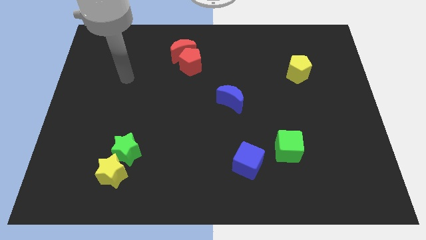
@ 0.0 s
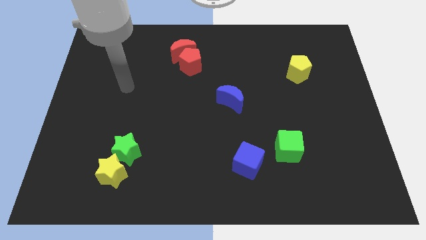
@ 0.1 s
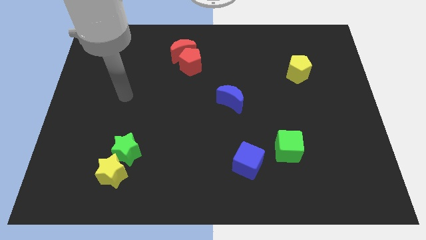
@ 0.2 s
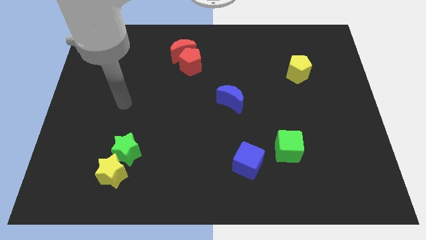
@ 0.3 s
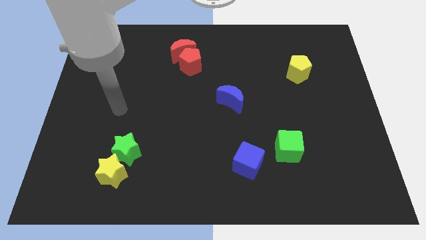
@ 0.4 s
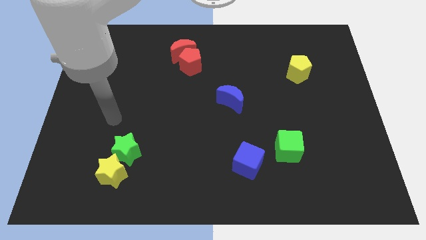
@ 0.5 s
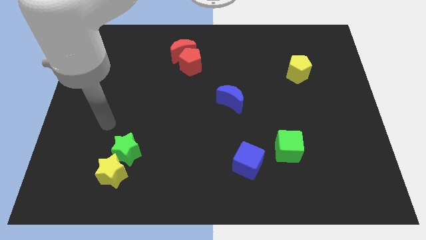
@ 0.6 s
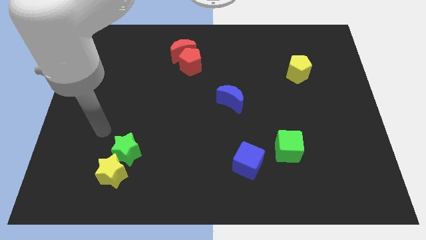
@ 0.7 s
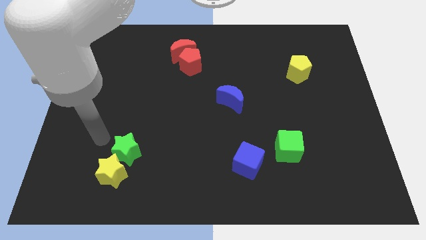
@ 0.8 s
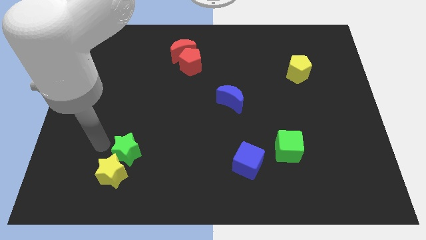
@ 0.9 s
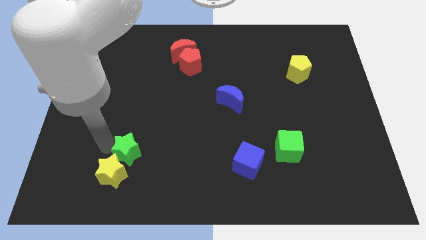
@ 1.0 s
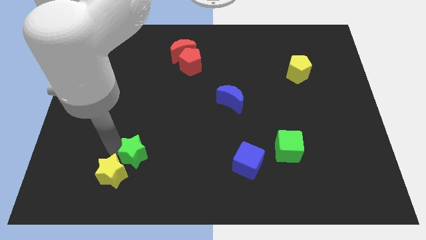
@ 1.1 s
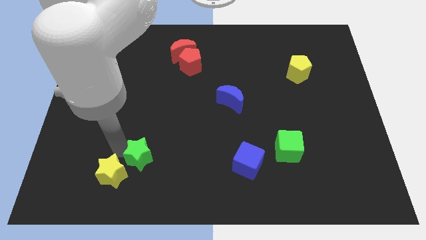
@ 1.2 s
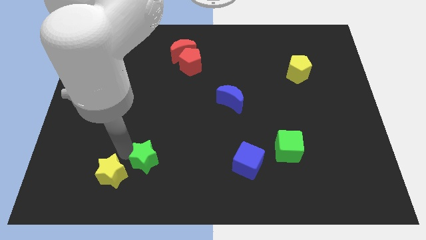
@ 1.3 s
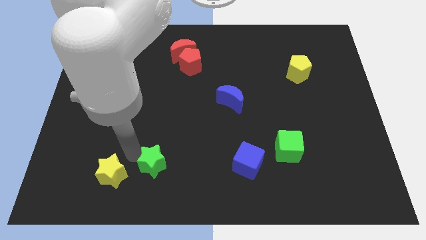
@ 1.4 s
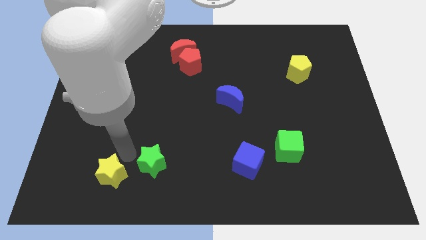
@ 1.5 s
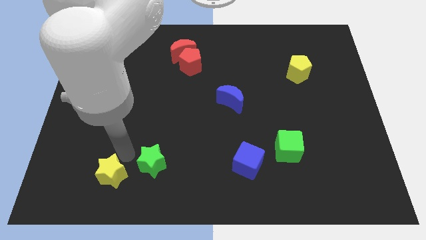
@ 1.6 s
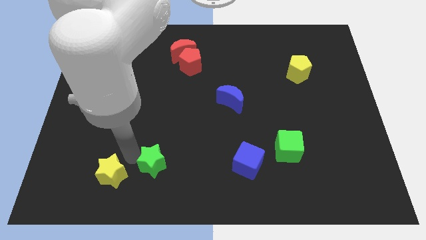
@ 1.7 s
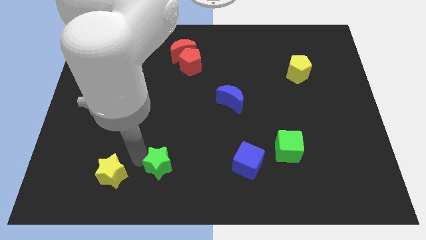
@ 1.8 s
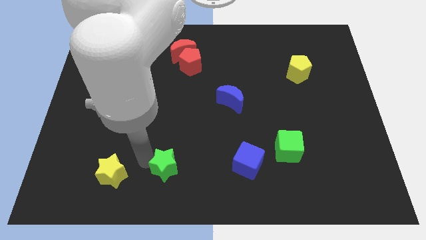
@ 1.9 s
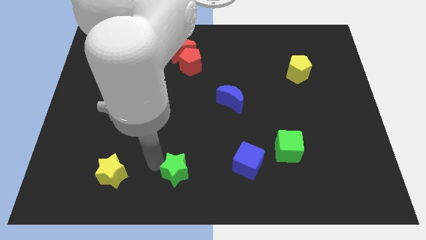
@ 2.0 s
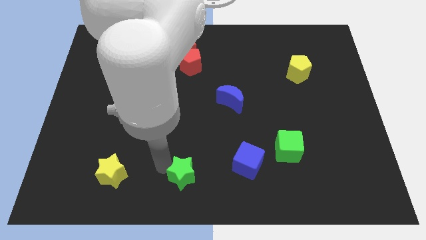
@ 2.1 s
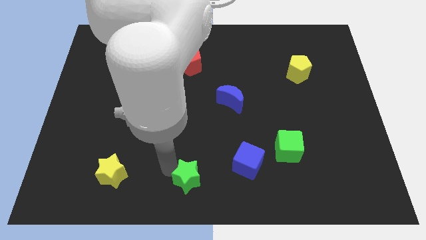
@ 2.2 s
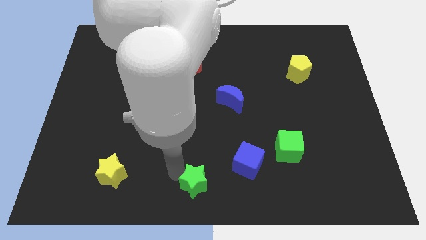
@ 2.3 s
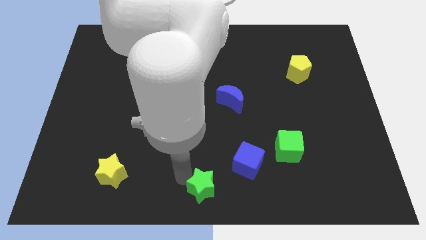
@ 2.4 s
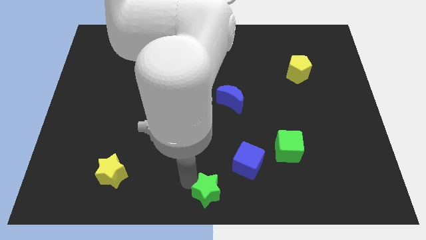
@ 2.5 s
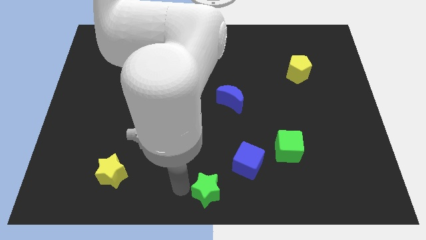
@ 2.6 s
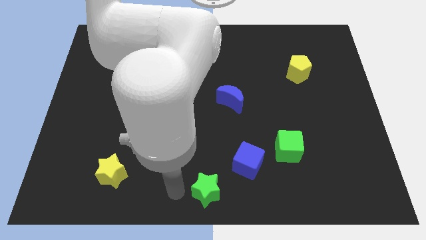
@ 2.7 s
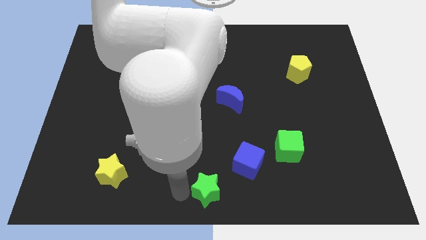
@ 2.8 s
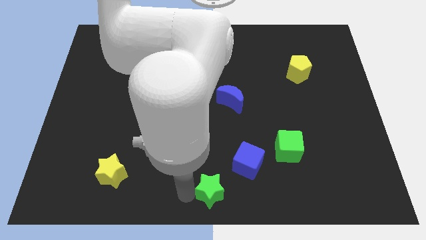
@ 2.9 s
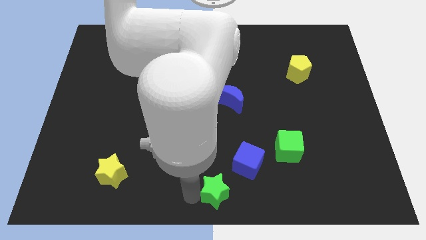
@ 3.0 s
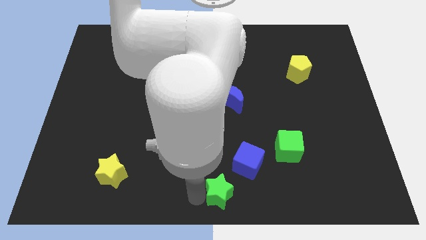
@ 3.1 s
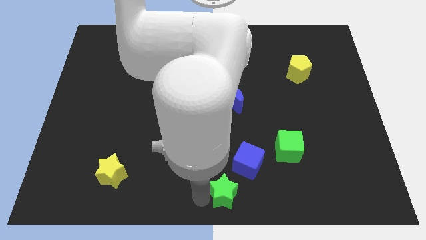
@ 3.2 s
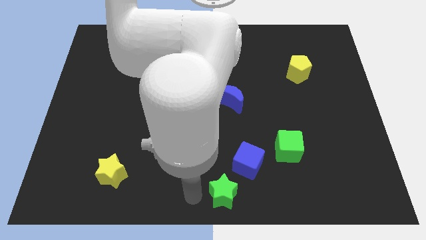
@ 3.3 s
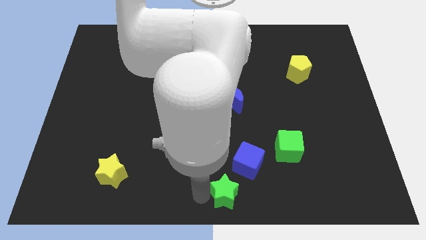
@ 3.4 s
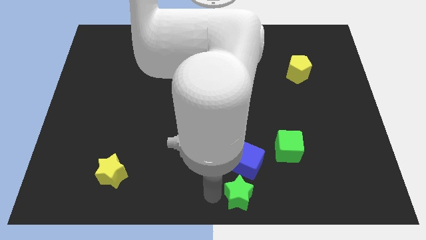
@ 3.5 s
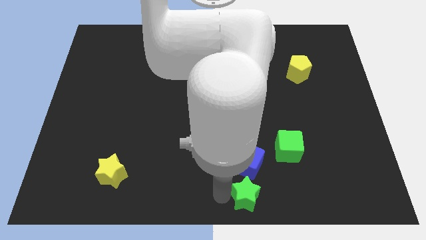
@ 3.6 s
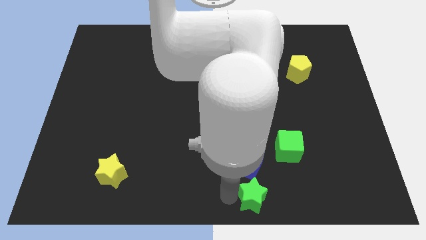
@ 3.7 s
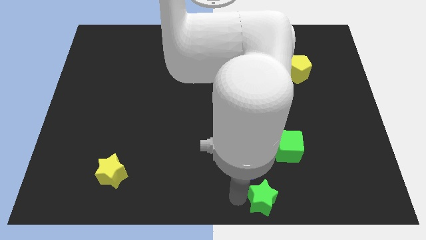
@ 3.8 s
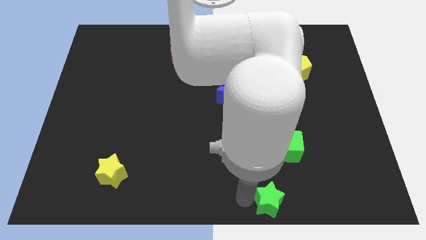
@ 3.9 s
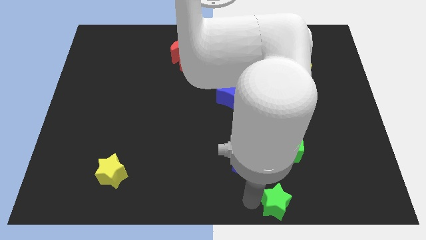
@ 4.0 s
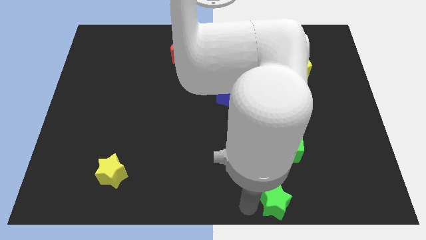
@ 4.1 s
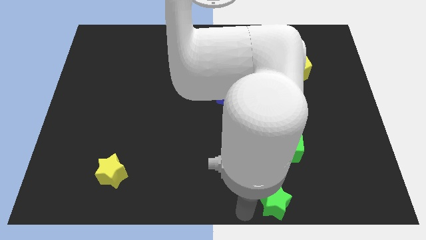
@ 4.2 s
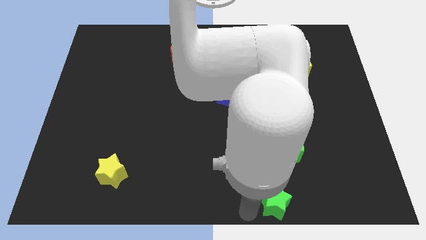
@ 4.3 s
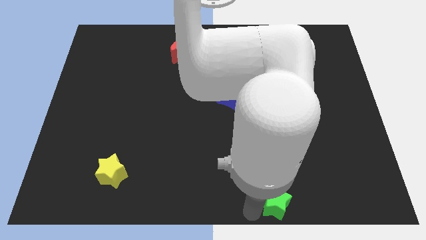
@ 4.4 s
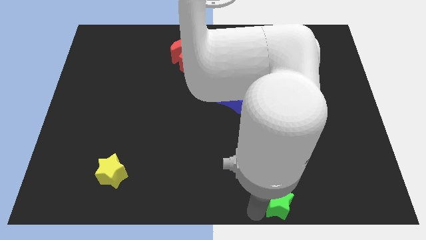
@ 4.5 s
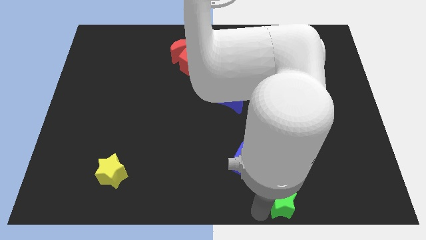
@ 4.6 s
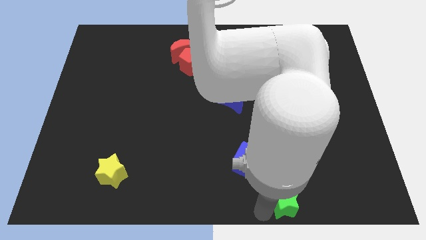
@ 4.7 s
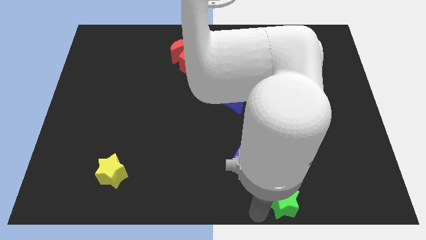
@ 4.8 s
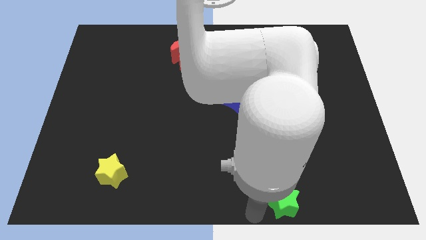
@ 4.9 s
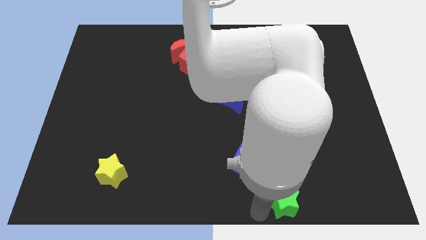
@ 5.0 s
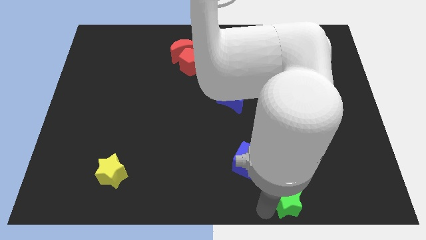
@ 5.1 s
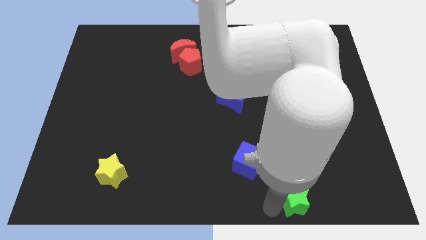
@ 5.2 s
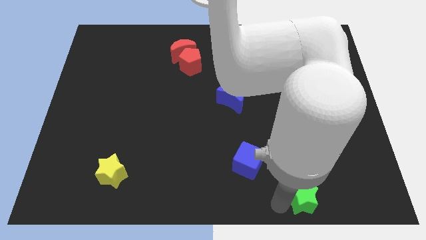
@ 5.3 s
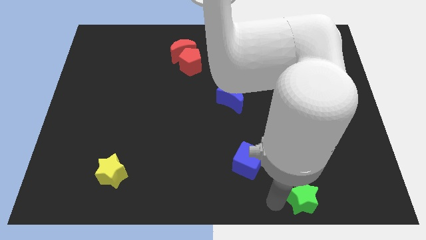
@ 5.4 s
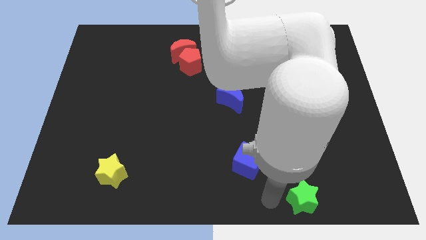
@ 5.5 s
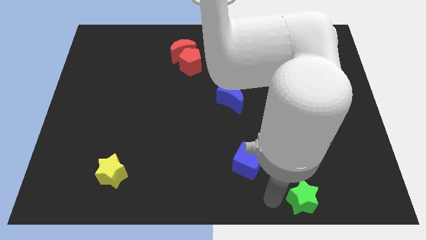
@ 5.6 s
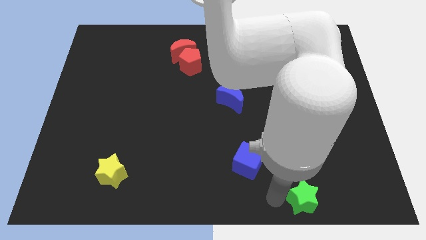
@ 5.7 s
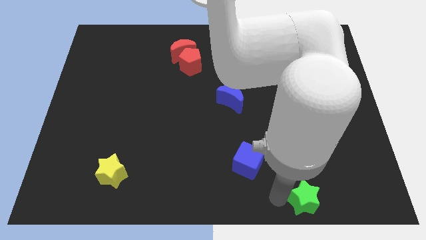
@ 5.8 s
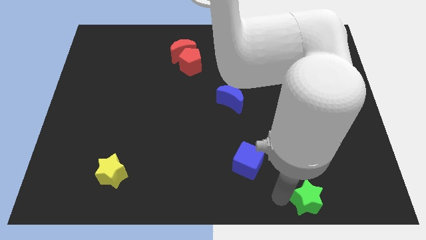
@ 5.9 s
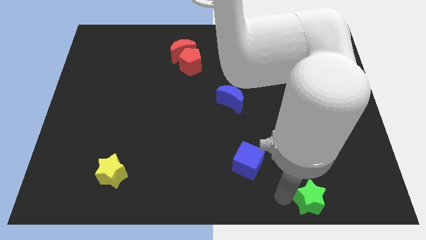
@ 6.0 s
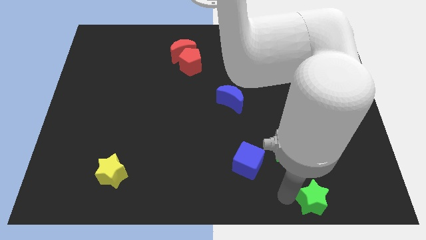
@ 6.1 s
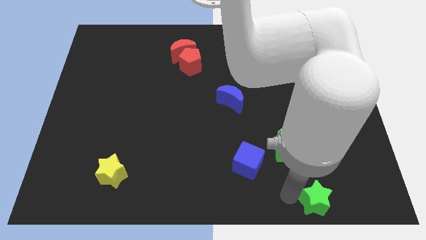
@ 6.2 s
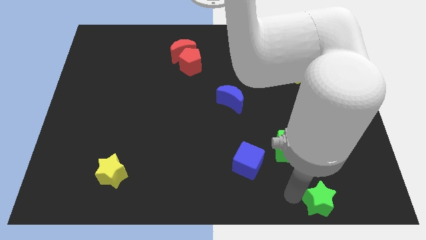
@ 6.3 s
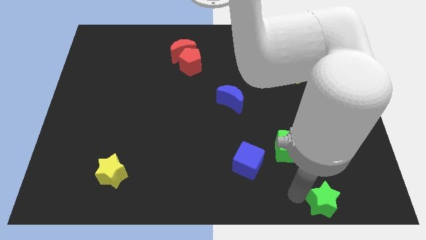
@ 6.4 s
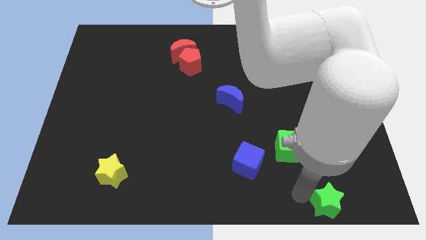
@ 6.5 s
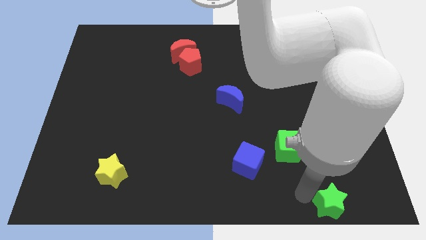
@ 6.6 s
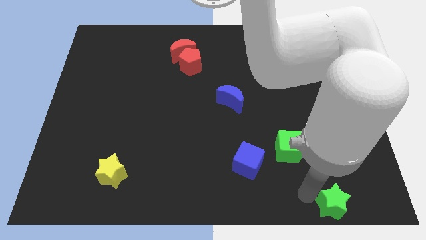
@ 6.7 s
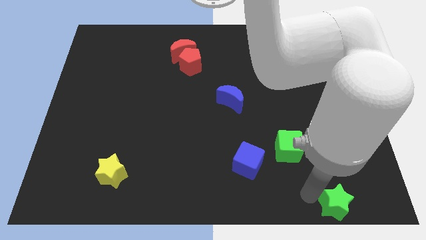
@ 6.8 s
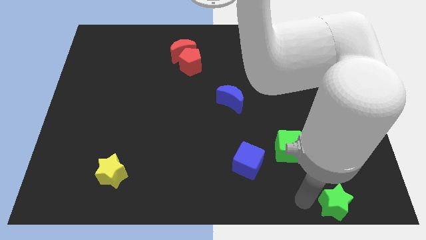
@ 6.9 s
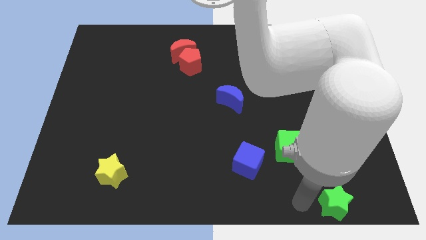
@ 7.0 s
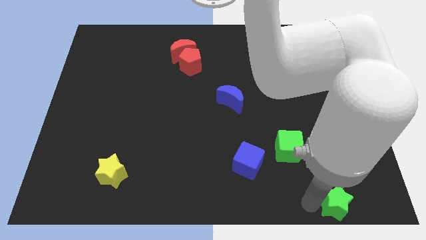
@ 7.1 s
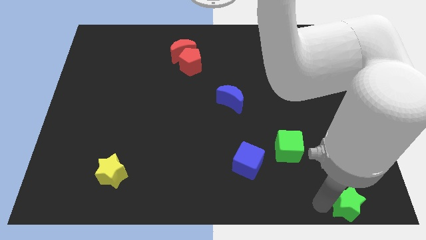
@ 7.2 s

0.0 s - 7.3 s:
move the green star to the bottom right of the board
